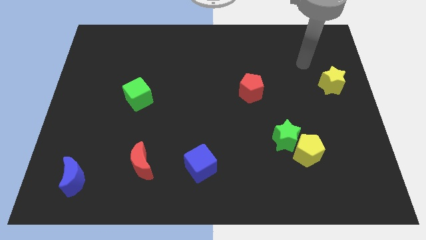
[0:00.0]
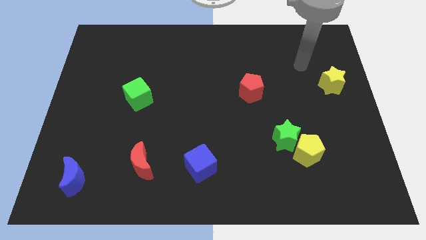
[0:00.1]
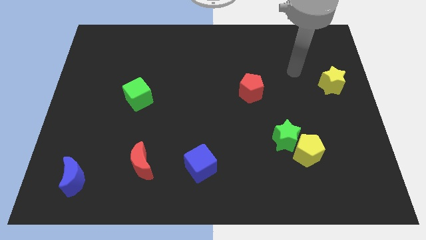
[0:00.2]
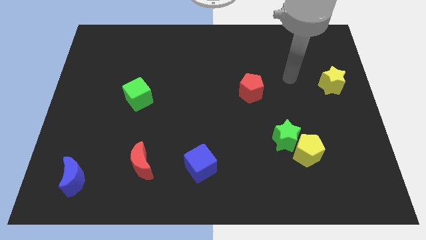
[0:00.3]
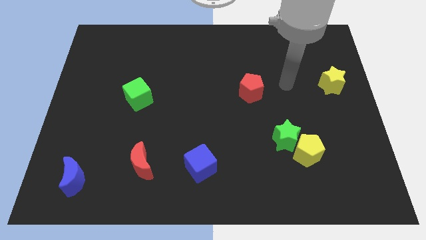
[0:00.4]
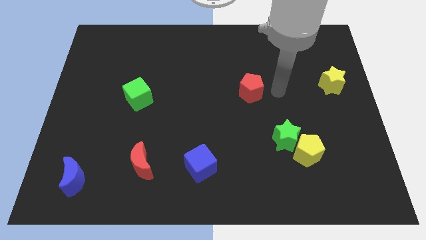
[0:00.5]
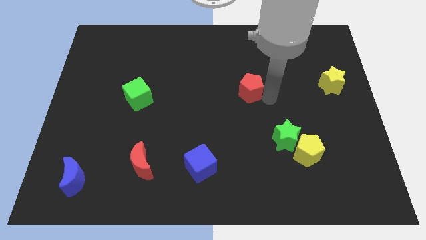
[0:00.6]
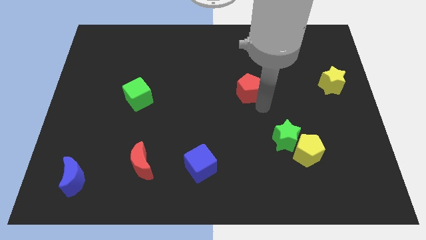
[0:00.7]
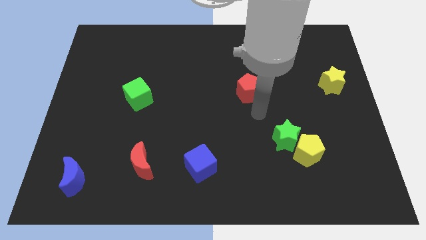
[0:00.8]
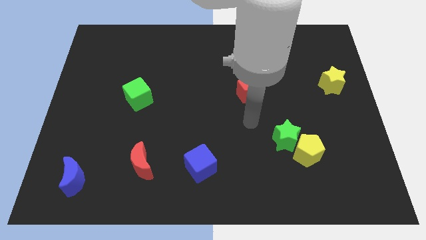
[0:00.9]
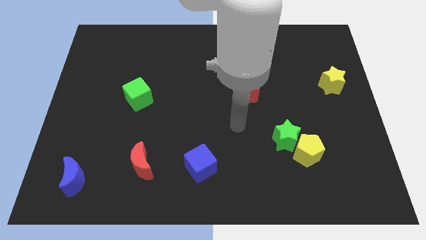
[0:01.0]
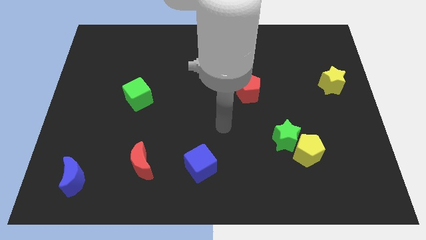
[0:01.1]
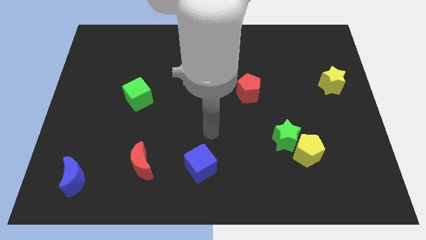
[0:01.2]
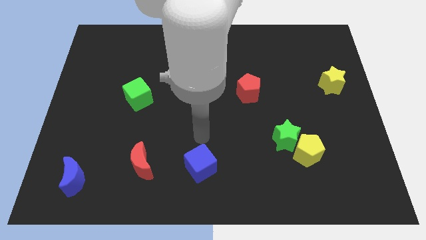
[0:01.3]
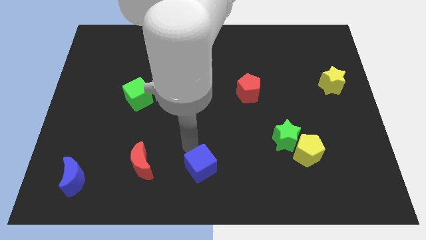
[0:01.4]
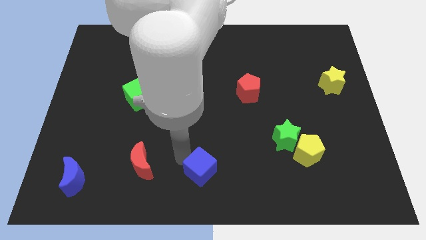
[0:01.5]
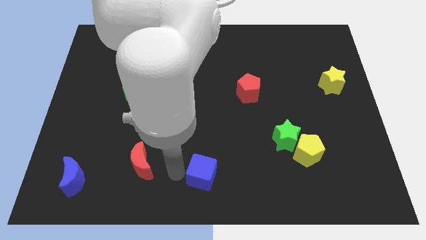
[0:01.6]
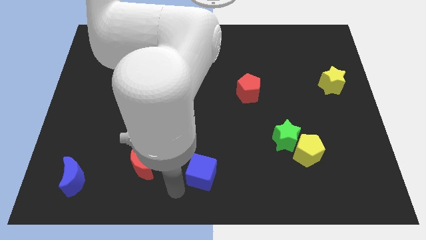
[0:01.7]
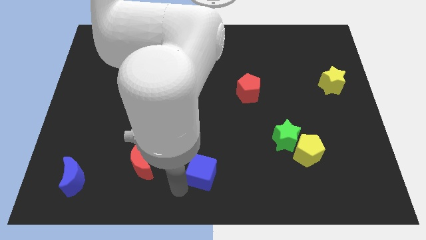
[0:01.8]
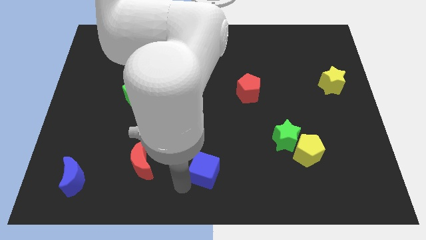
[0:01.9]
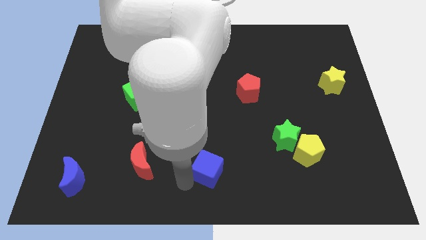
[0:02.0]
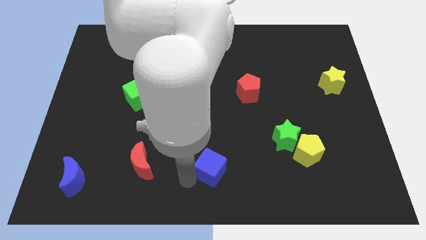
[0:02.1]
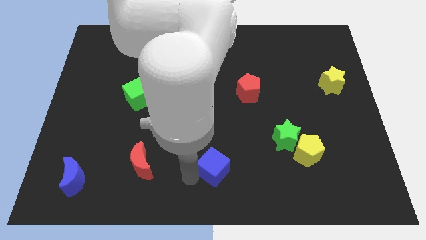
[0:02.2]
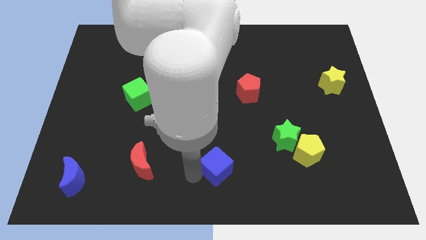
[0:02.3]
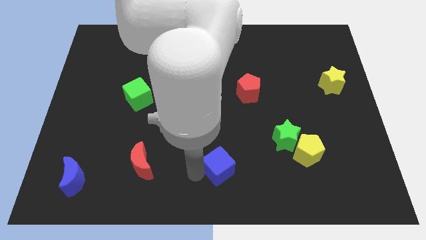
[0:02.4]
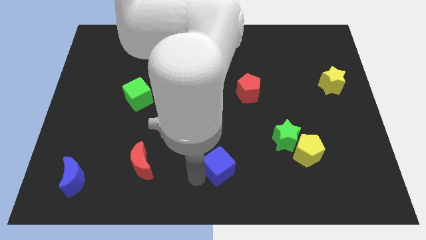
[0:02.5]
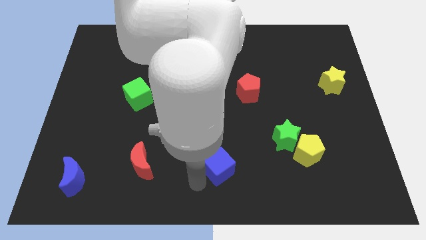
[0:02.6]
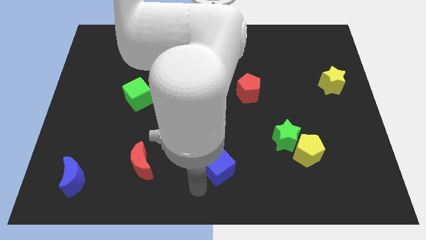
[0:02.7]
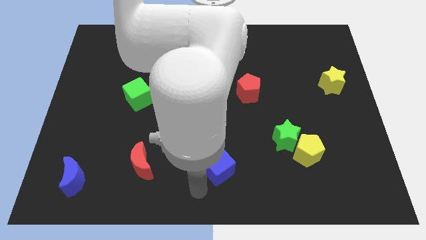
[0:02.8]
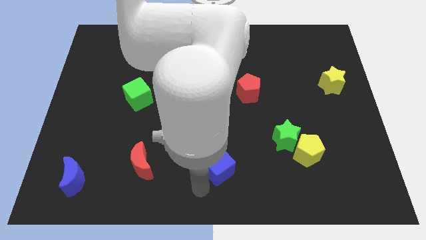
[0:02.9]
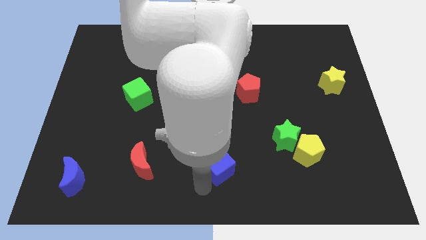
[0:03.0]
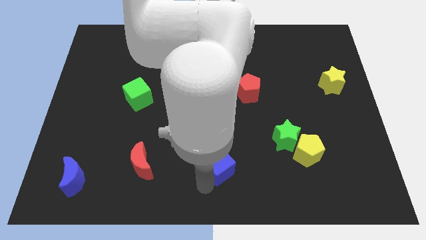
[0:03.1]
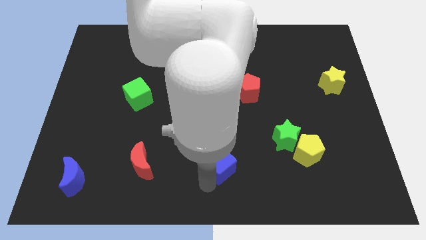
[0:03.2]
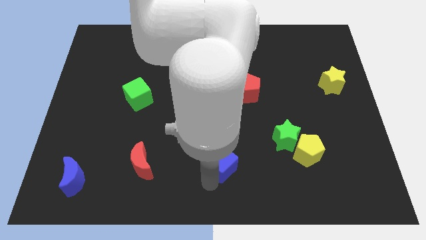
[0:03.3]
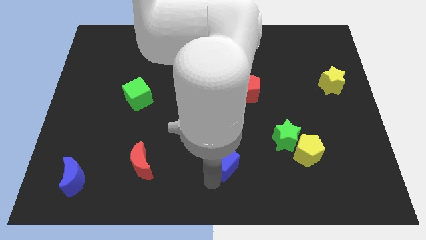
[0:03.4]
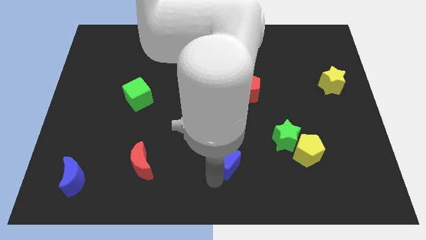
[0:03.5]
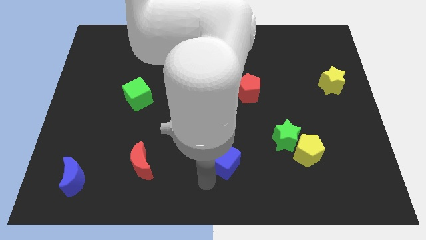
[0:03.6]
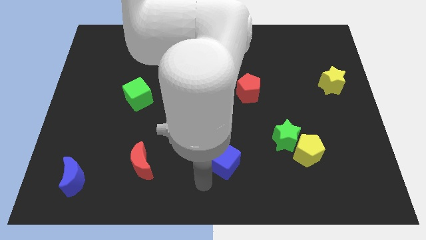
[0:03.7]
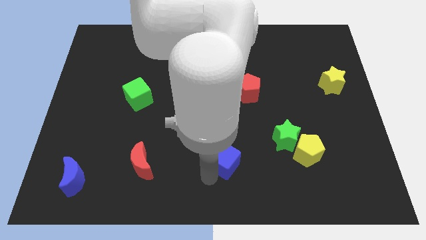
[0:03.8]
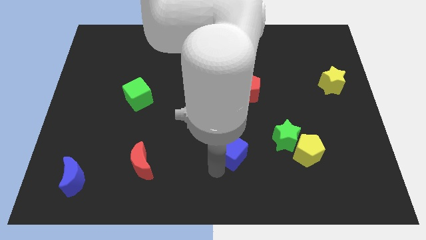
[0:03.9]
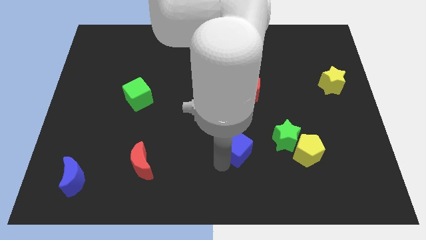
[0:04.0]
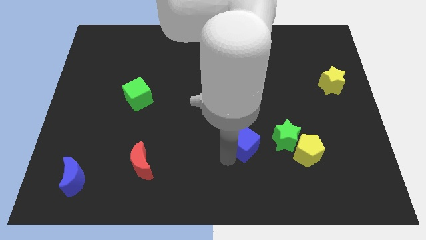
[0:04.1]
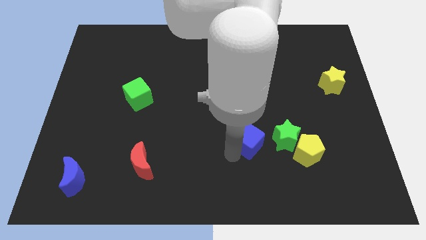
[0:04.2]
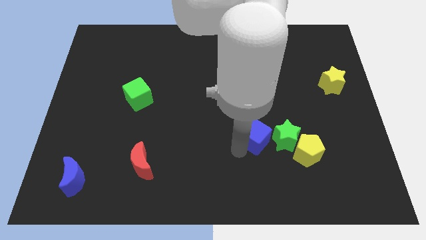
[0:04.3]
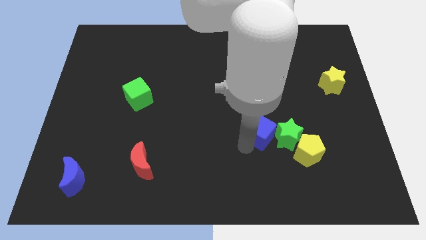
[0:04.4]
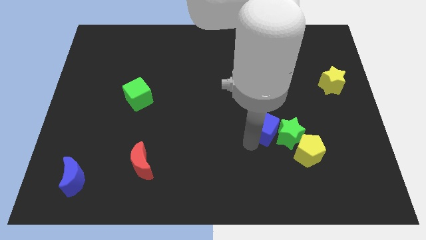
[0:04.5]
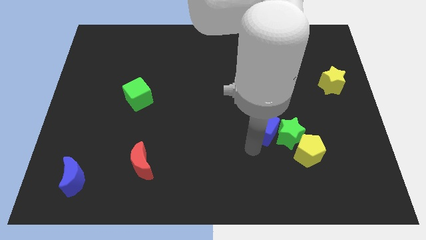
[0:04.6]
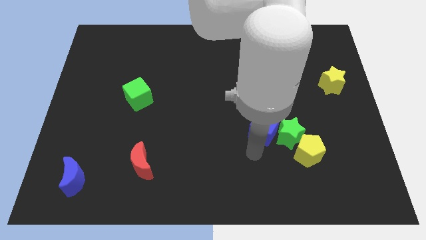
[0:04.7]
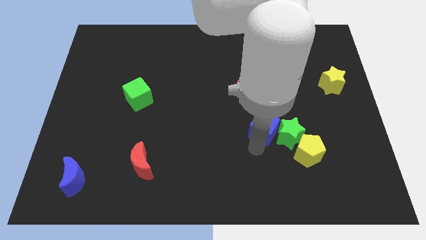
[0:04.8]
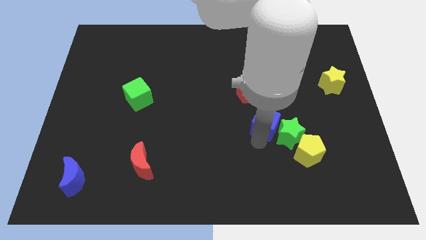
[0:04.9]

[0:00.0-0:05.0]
move the blue cube to the bottom right of the red pentagon

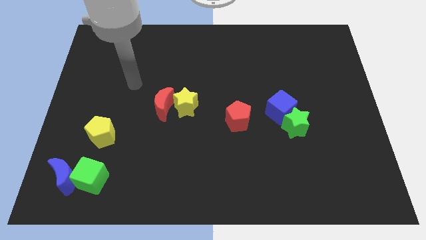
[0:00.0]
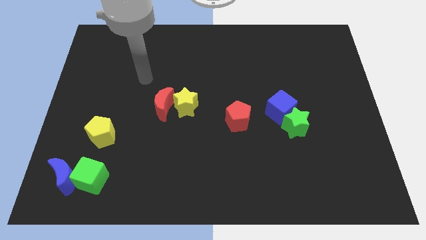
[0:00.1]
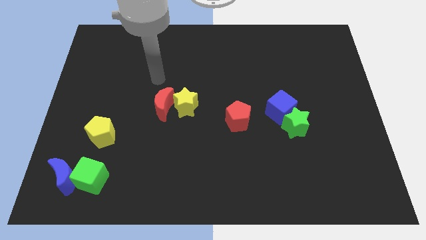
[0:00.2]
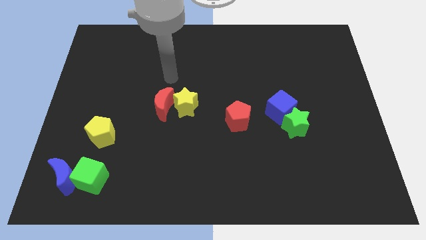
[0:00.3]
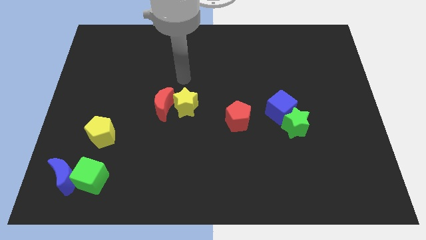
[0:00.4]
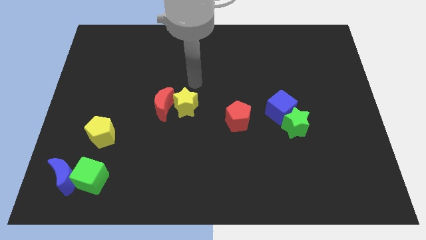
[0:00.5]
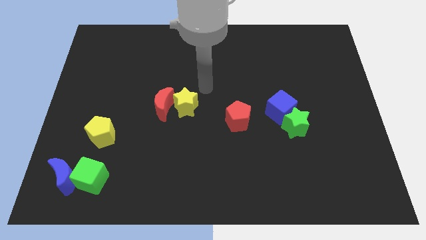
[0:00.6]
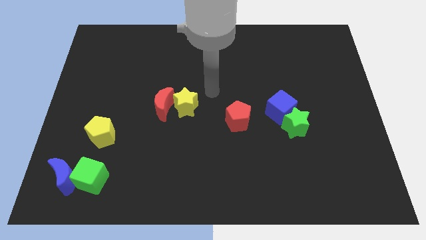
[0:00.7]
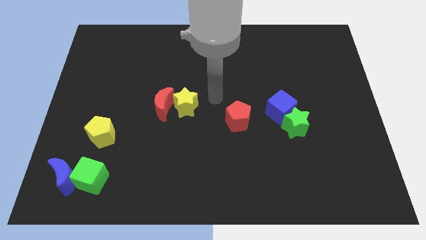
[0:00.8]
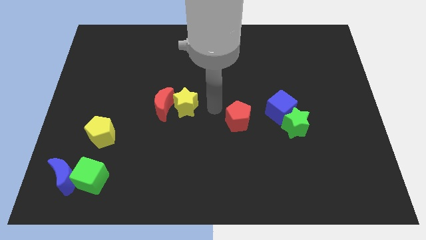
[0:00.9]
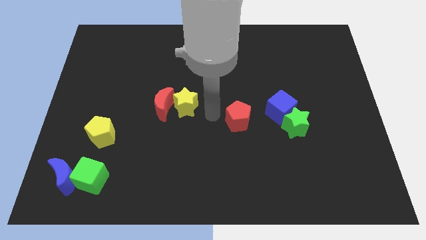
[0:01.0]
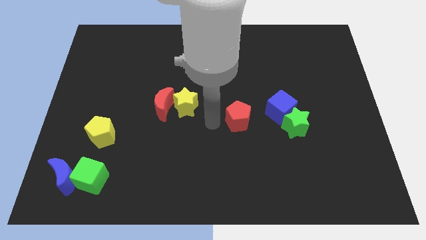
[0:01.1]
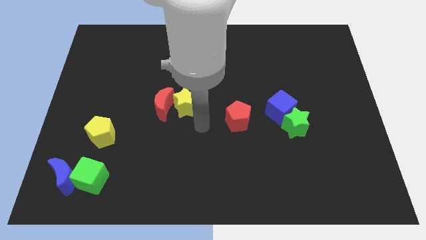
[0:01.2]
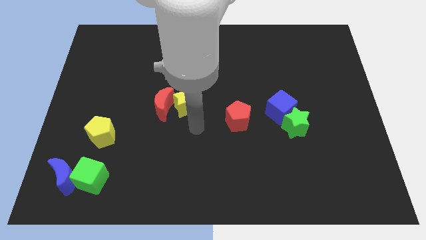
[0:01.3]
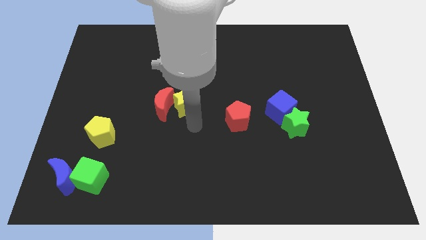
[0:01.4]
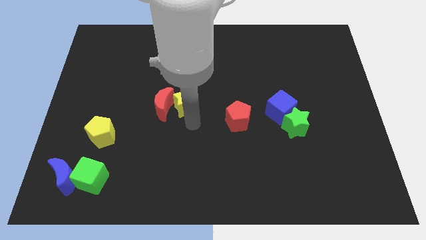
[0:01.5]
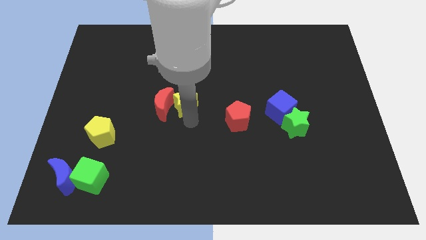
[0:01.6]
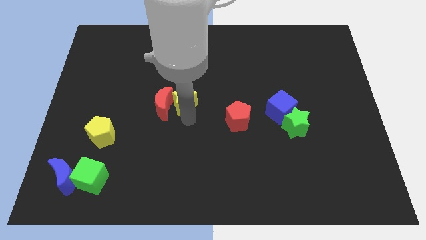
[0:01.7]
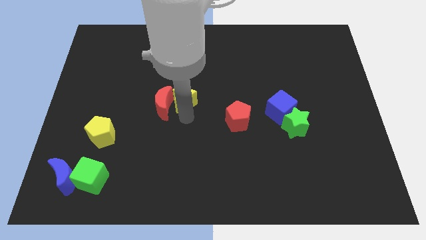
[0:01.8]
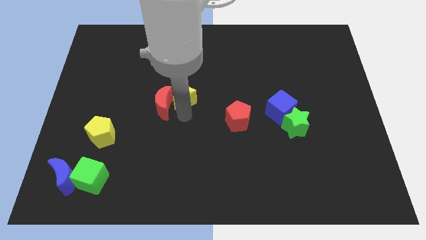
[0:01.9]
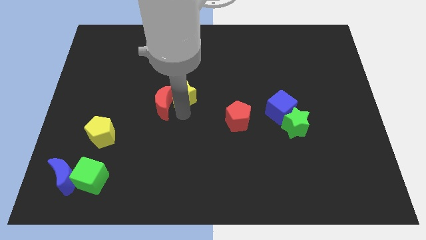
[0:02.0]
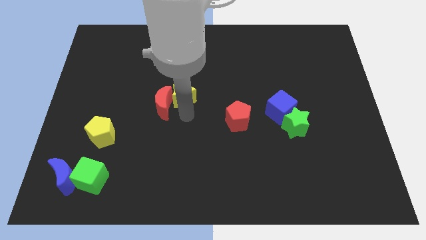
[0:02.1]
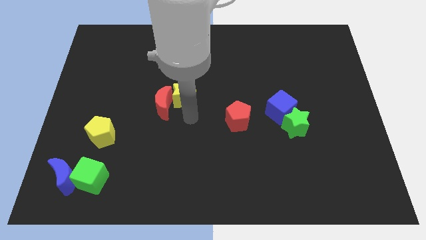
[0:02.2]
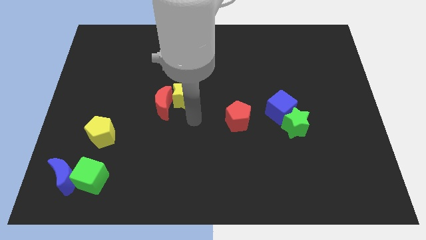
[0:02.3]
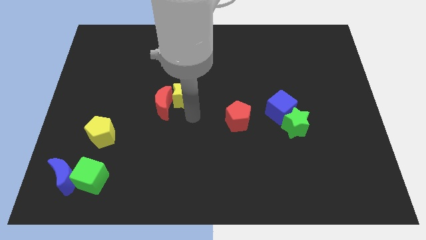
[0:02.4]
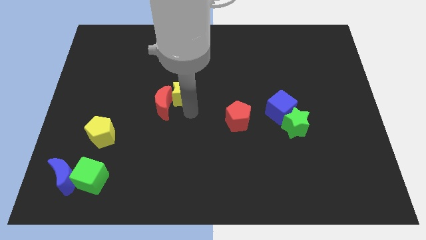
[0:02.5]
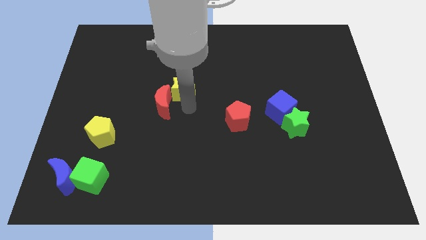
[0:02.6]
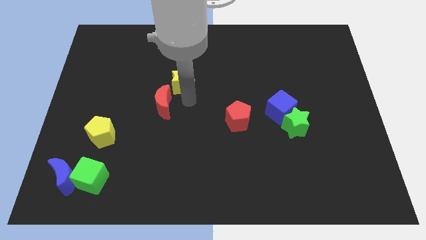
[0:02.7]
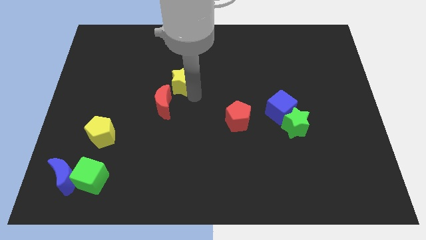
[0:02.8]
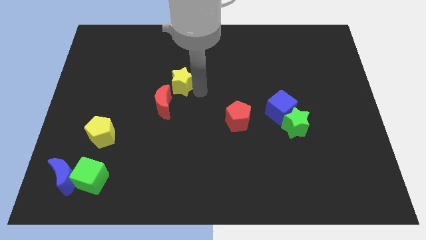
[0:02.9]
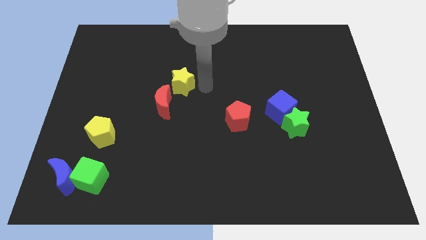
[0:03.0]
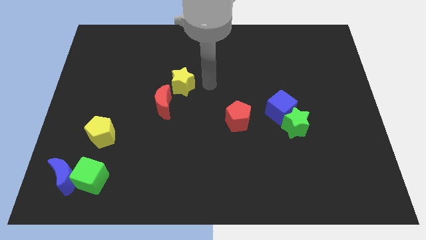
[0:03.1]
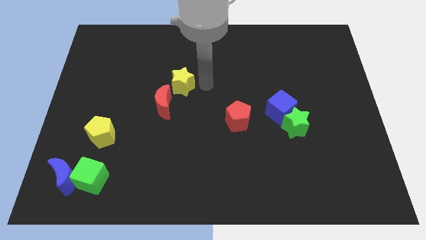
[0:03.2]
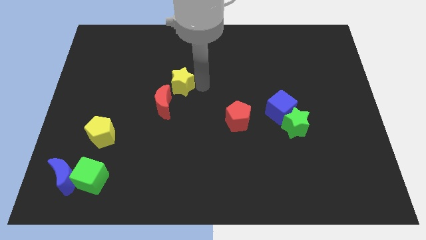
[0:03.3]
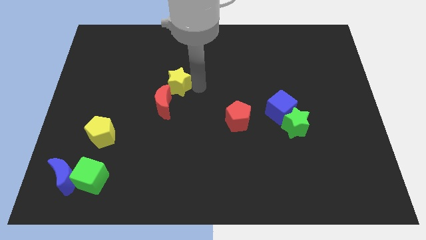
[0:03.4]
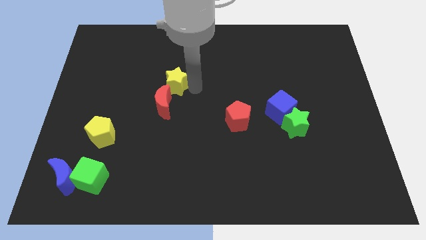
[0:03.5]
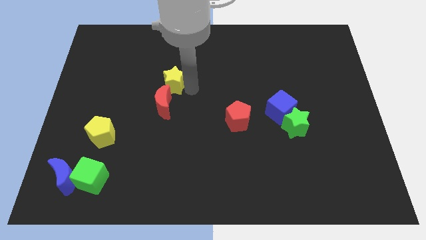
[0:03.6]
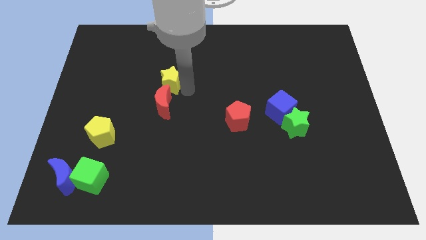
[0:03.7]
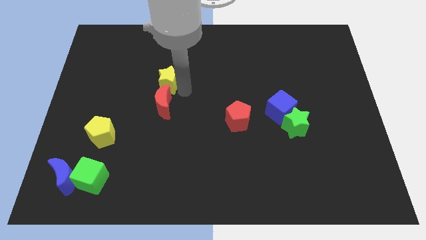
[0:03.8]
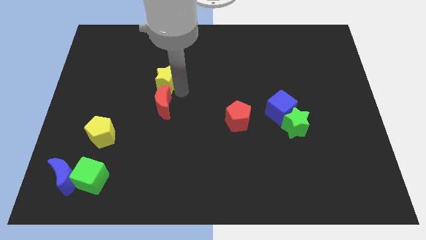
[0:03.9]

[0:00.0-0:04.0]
move the yellow star to the top left side of the red moon
